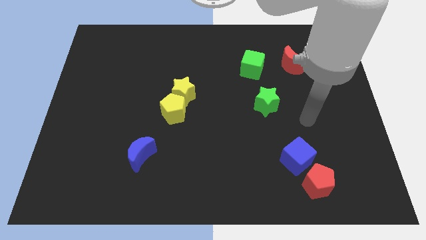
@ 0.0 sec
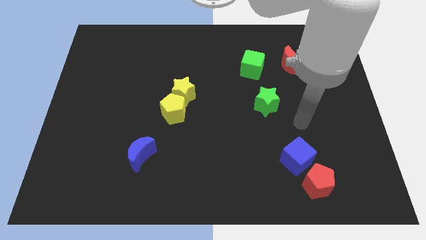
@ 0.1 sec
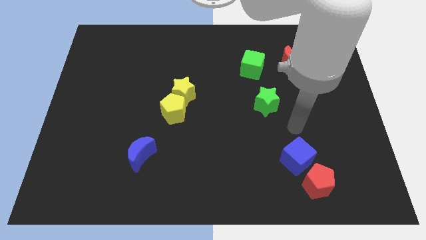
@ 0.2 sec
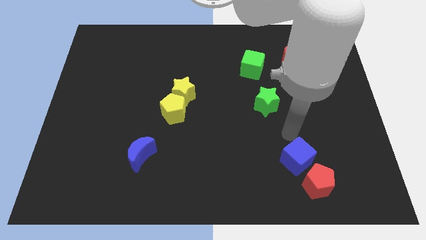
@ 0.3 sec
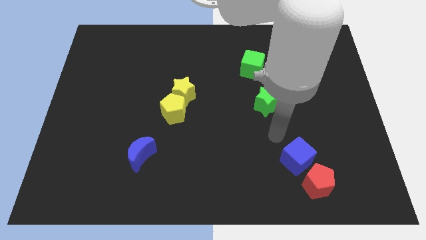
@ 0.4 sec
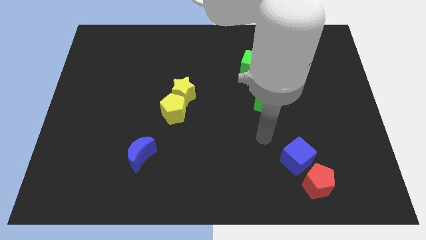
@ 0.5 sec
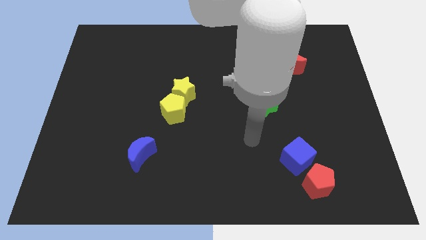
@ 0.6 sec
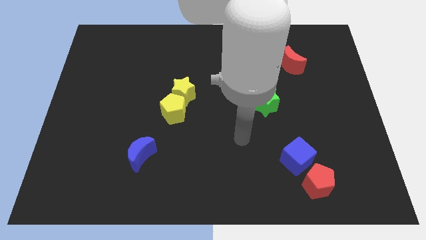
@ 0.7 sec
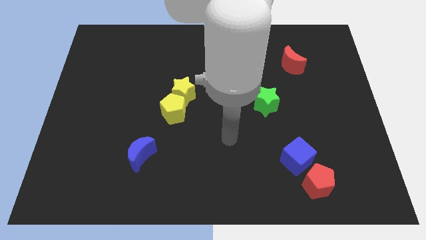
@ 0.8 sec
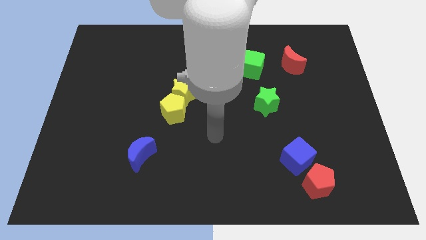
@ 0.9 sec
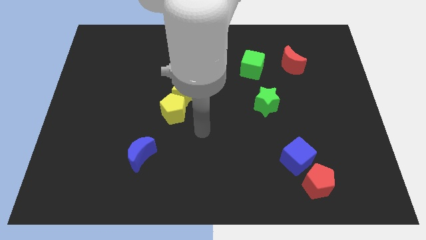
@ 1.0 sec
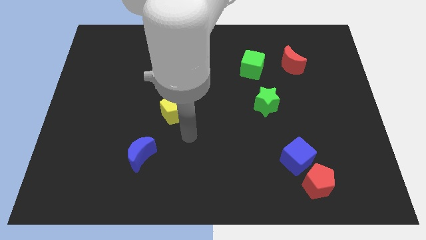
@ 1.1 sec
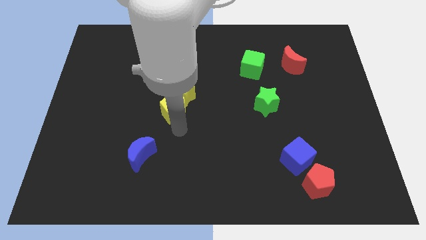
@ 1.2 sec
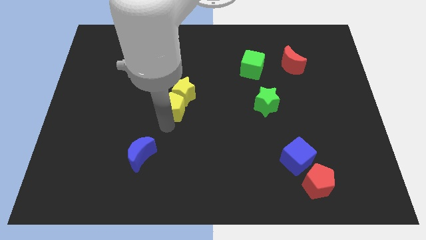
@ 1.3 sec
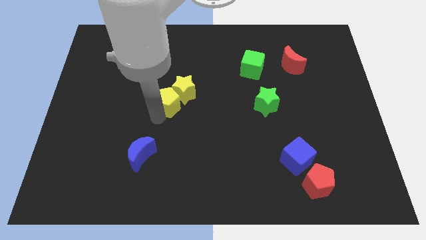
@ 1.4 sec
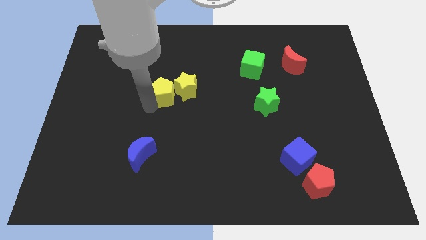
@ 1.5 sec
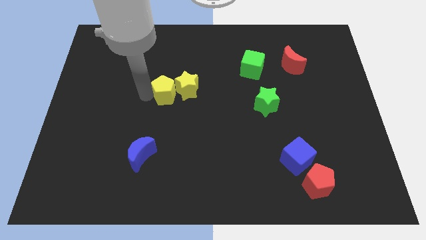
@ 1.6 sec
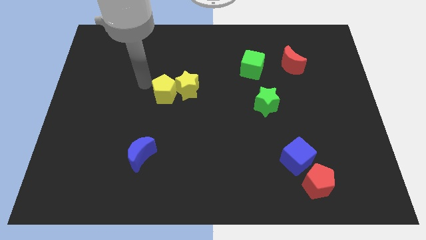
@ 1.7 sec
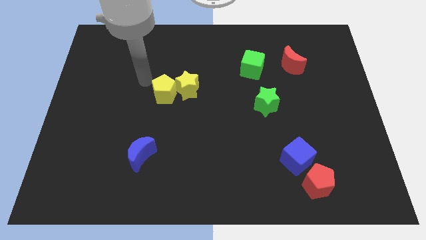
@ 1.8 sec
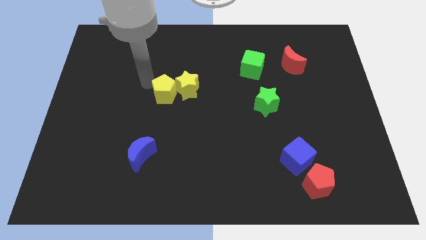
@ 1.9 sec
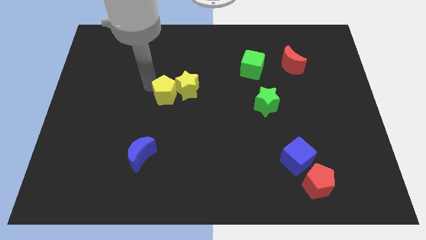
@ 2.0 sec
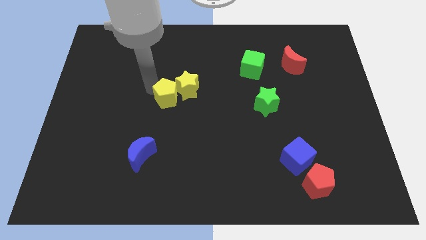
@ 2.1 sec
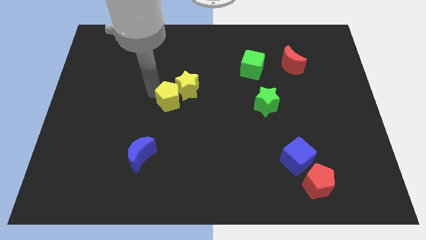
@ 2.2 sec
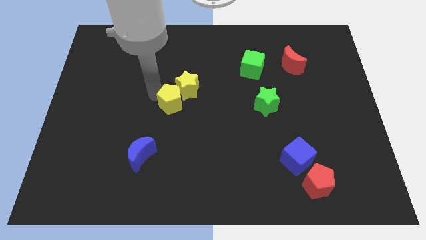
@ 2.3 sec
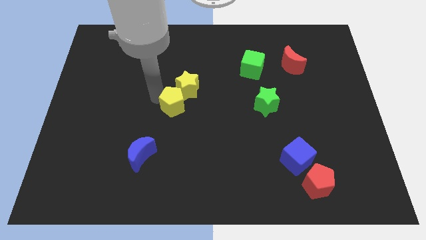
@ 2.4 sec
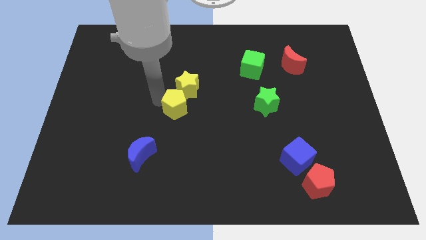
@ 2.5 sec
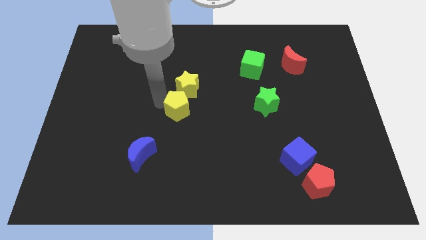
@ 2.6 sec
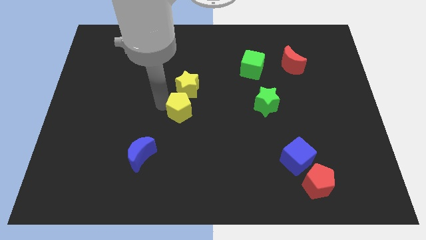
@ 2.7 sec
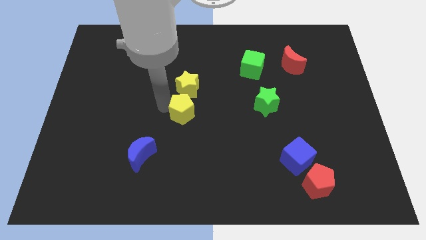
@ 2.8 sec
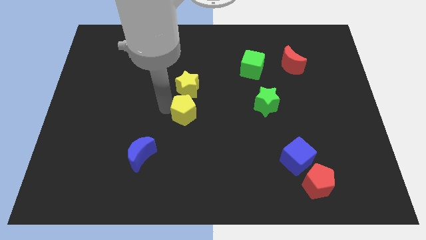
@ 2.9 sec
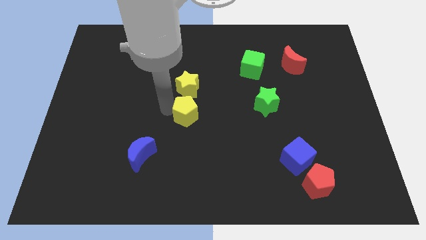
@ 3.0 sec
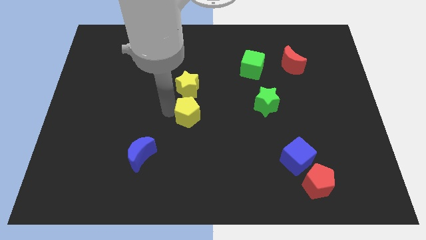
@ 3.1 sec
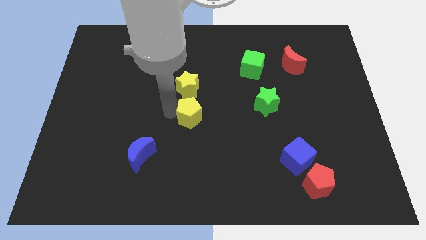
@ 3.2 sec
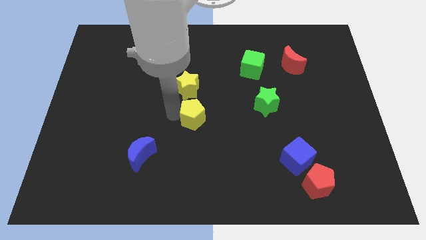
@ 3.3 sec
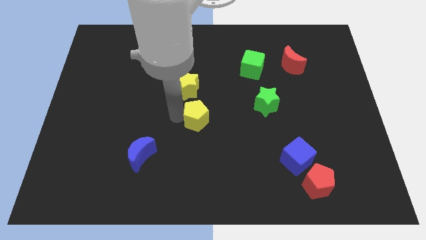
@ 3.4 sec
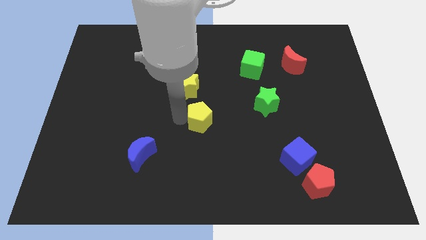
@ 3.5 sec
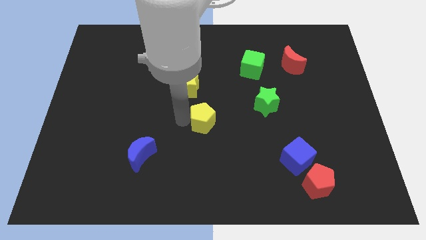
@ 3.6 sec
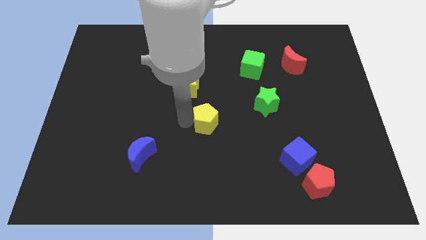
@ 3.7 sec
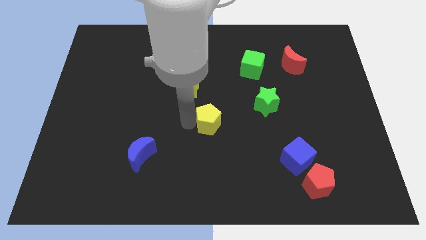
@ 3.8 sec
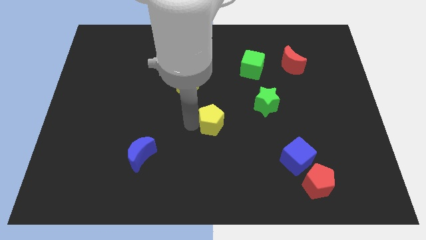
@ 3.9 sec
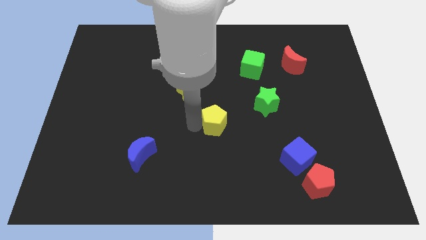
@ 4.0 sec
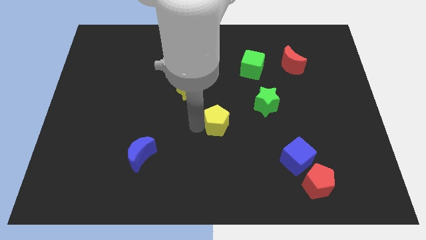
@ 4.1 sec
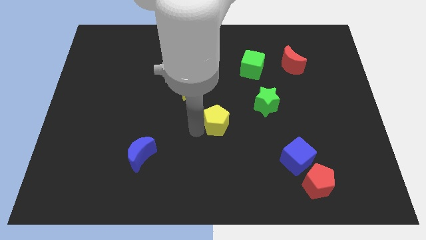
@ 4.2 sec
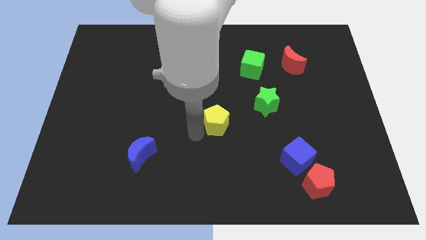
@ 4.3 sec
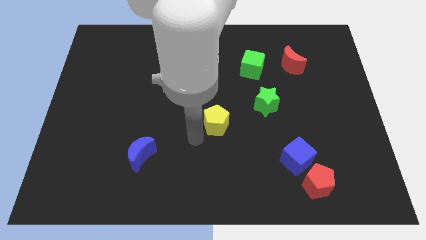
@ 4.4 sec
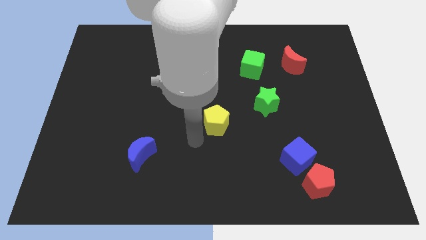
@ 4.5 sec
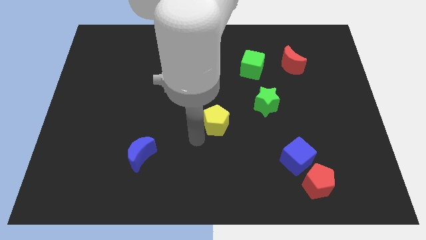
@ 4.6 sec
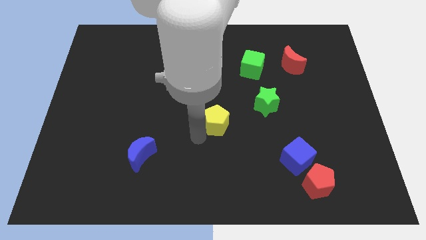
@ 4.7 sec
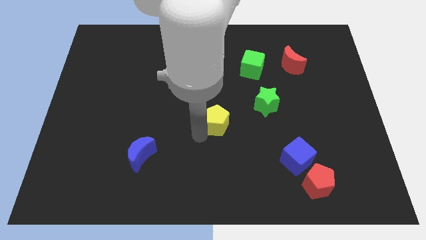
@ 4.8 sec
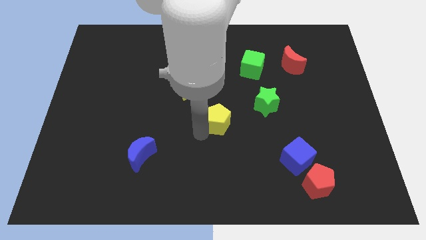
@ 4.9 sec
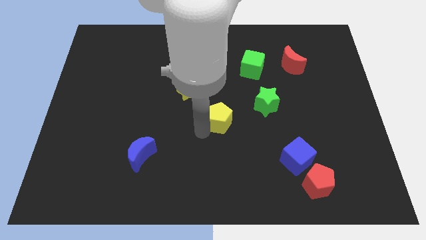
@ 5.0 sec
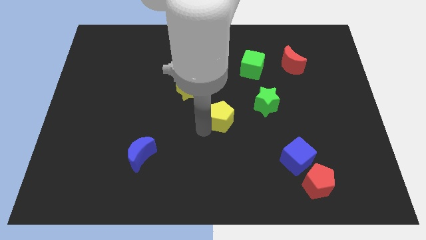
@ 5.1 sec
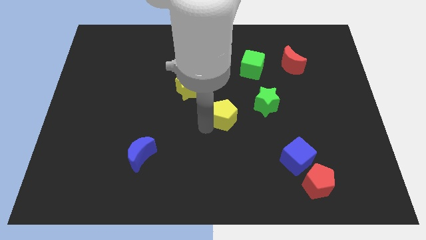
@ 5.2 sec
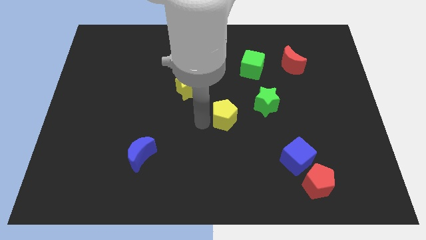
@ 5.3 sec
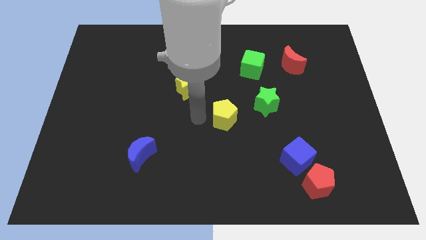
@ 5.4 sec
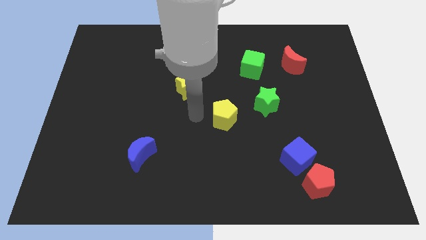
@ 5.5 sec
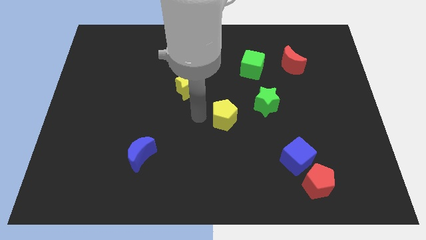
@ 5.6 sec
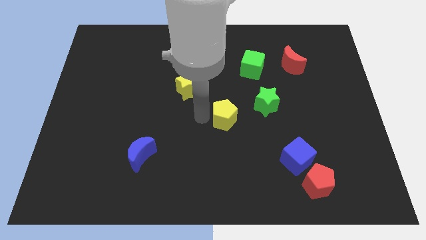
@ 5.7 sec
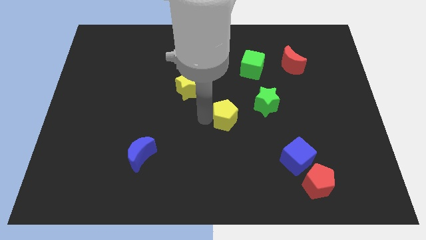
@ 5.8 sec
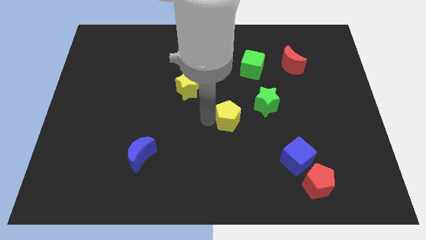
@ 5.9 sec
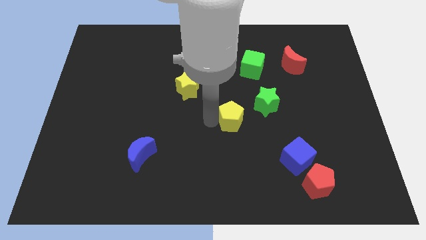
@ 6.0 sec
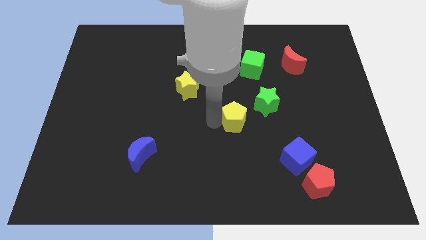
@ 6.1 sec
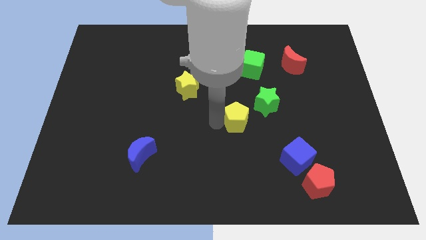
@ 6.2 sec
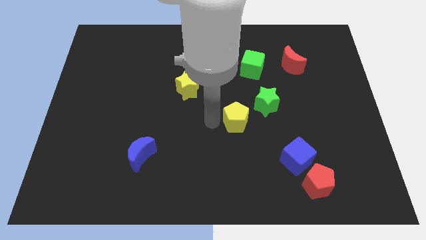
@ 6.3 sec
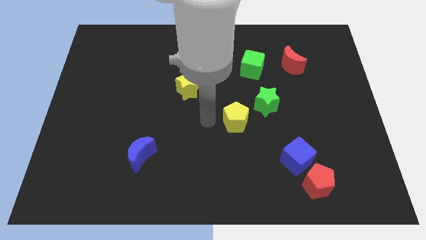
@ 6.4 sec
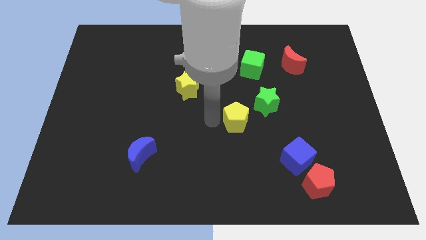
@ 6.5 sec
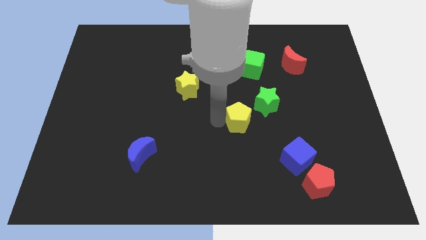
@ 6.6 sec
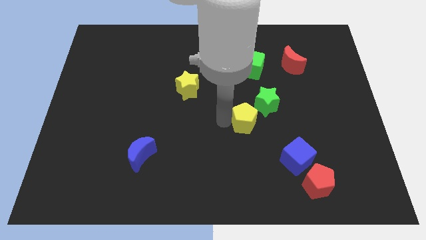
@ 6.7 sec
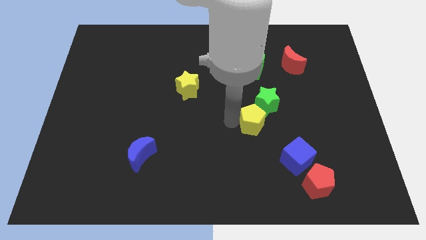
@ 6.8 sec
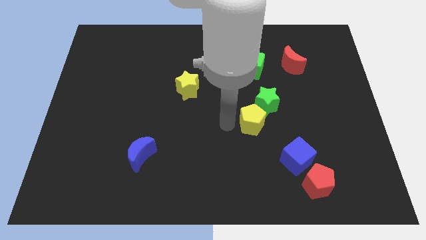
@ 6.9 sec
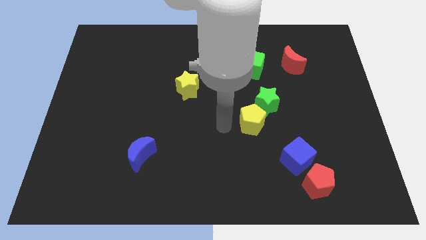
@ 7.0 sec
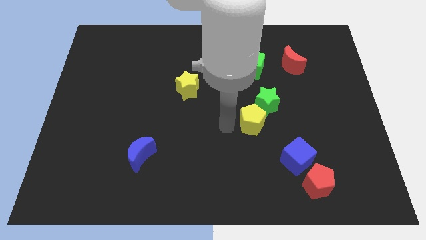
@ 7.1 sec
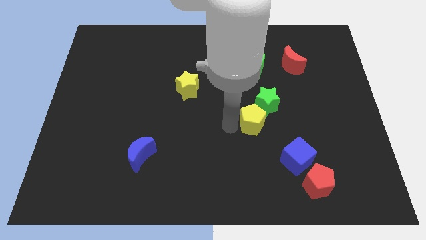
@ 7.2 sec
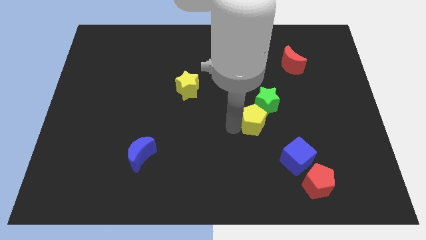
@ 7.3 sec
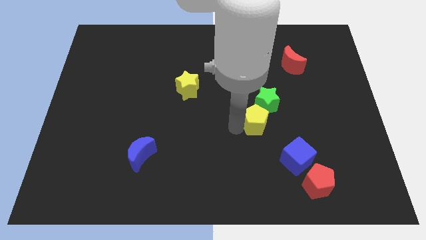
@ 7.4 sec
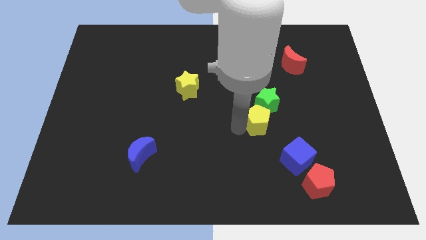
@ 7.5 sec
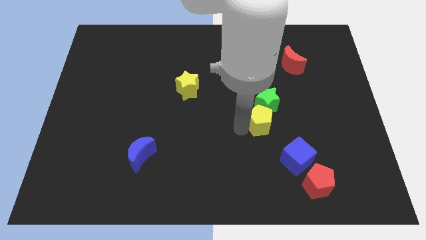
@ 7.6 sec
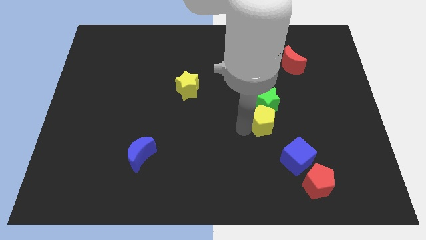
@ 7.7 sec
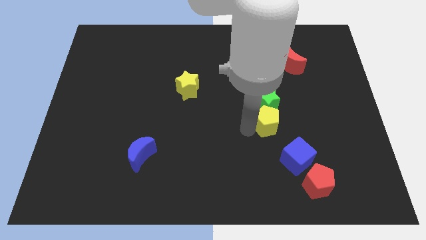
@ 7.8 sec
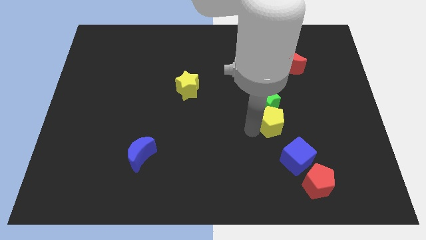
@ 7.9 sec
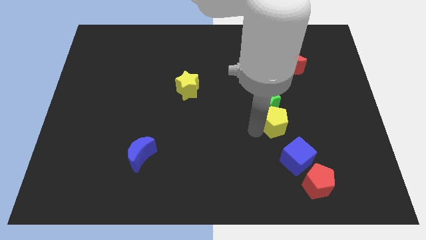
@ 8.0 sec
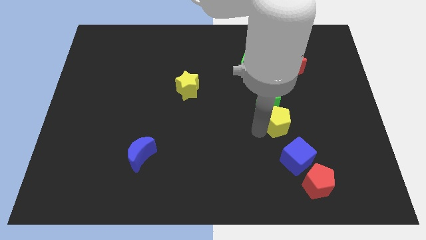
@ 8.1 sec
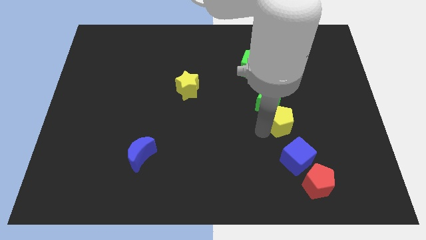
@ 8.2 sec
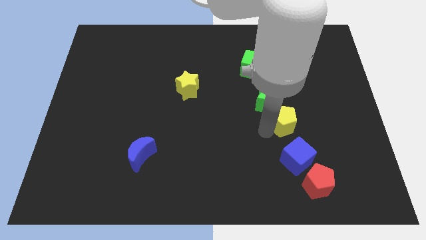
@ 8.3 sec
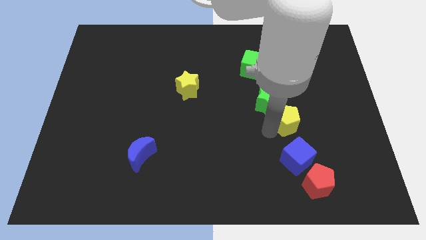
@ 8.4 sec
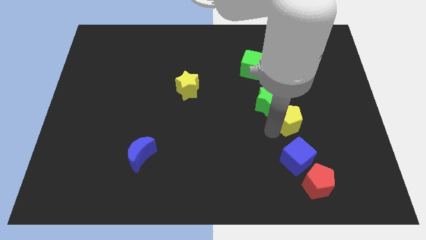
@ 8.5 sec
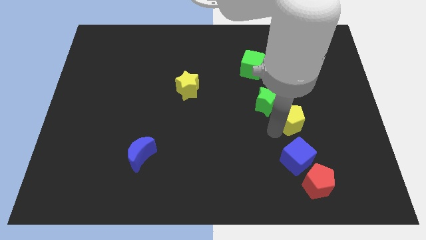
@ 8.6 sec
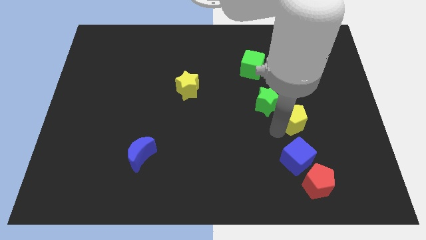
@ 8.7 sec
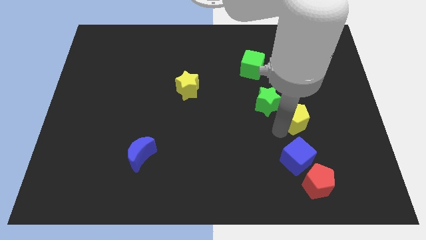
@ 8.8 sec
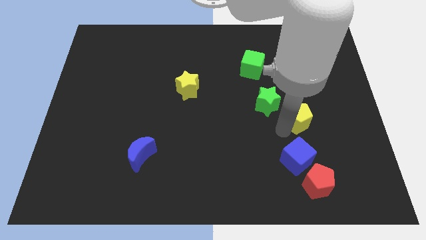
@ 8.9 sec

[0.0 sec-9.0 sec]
put the yellow pentagon to the right of the green star
